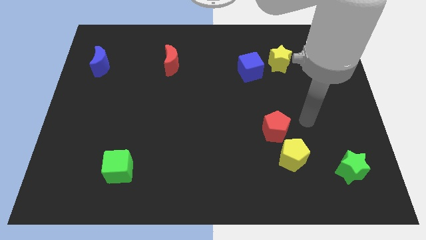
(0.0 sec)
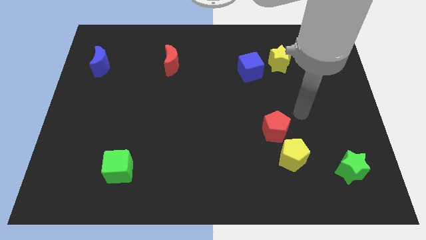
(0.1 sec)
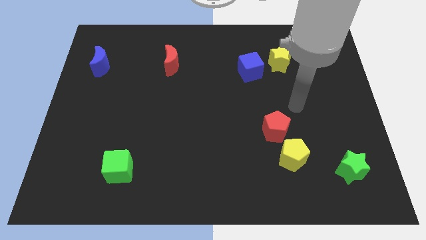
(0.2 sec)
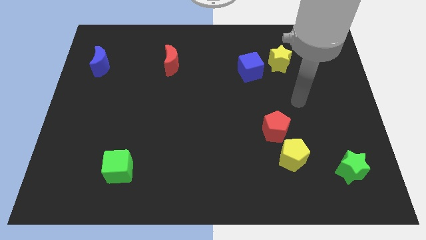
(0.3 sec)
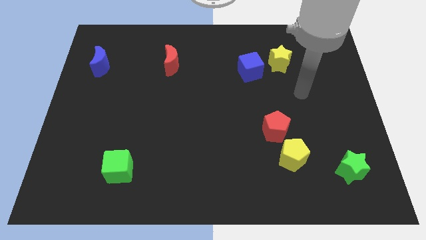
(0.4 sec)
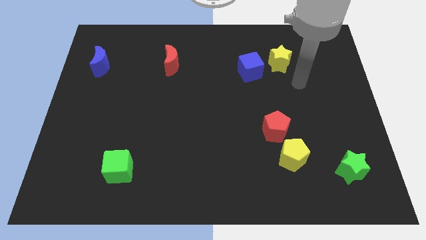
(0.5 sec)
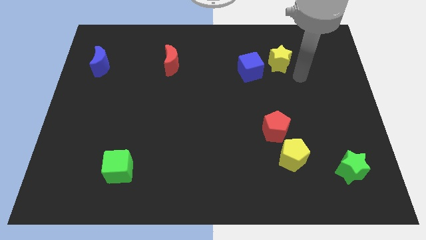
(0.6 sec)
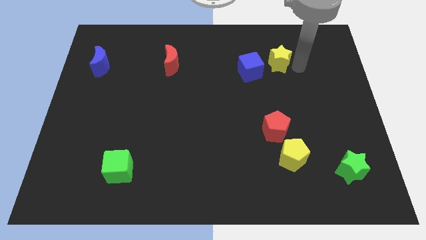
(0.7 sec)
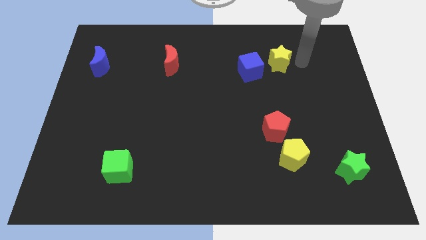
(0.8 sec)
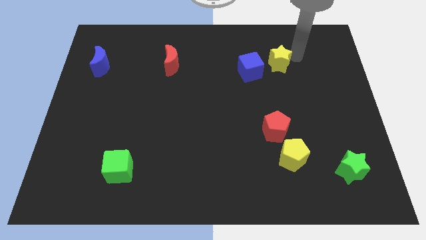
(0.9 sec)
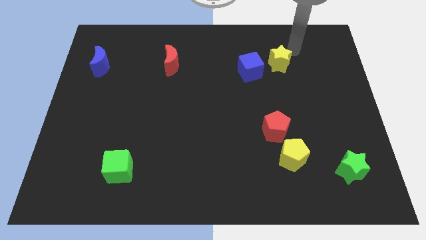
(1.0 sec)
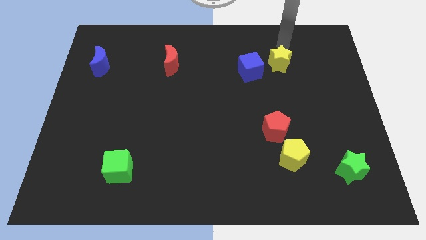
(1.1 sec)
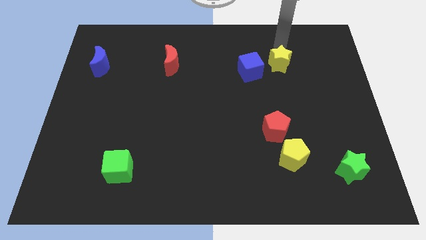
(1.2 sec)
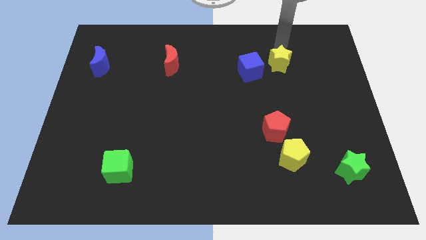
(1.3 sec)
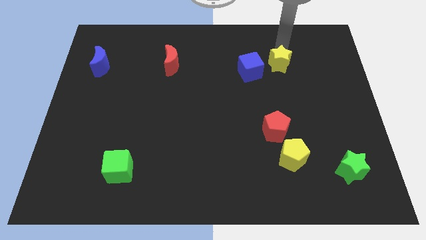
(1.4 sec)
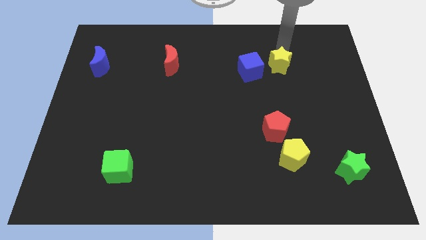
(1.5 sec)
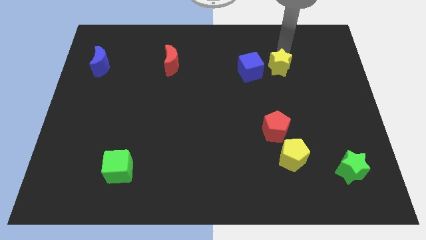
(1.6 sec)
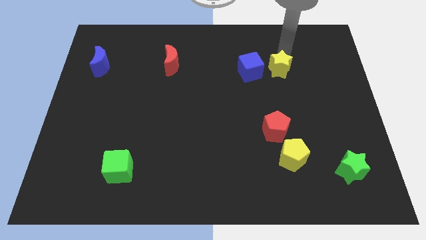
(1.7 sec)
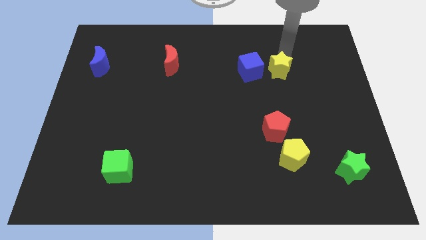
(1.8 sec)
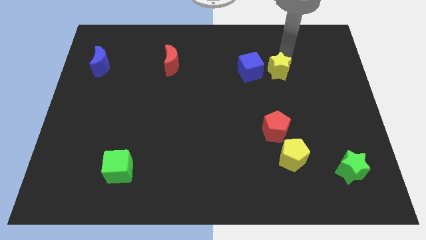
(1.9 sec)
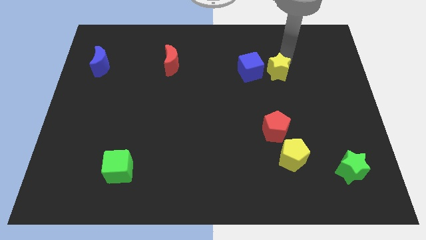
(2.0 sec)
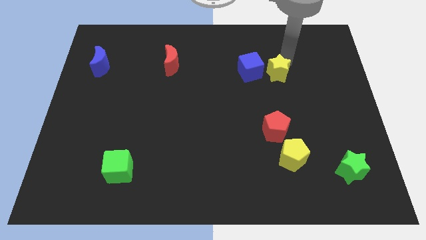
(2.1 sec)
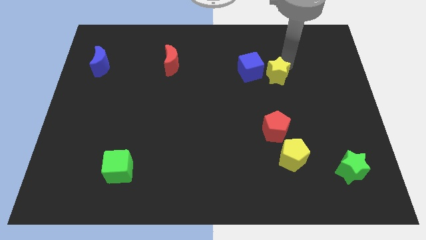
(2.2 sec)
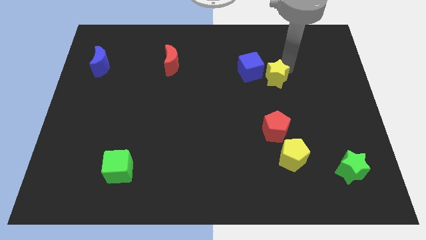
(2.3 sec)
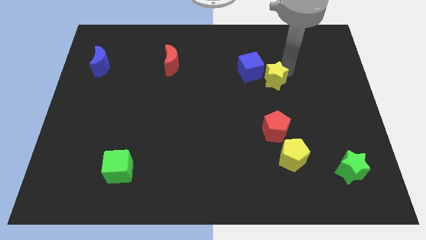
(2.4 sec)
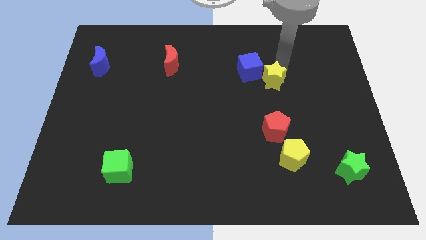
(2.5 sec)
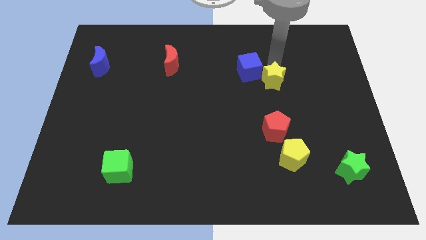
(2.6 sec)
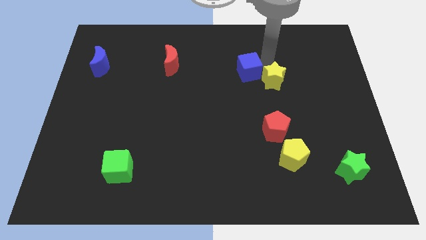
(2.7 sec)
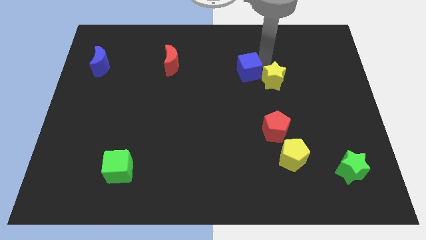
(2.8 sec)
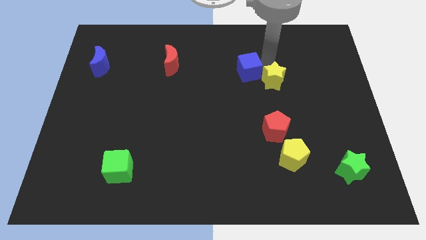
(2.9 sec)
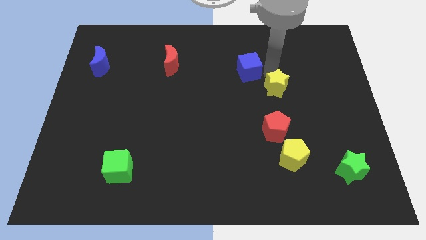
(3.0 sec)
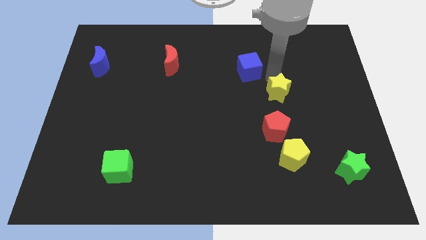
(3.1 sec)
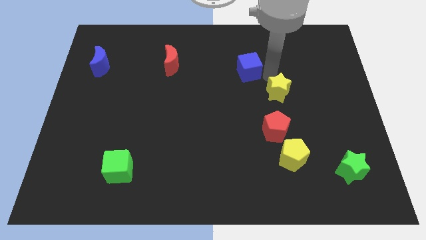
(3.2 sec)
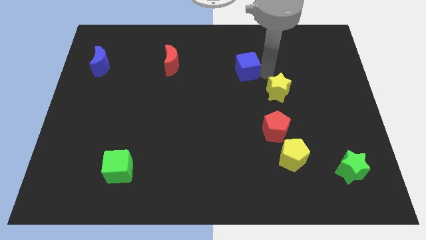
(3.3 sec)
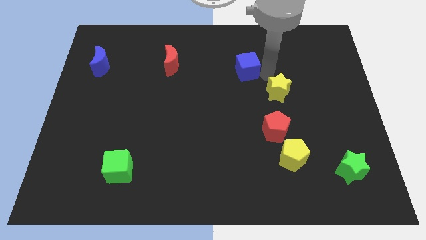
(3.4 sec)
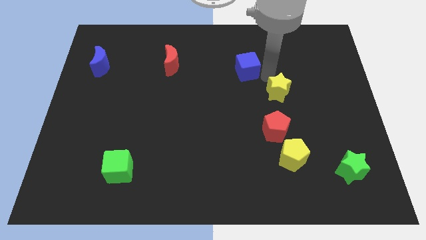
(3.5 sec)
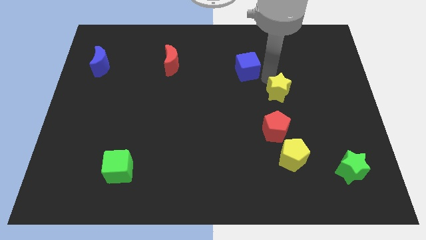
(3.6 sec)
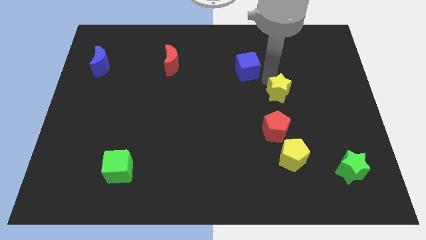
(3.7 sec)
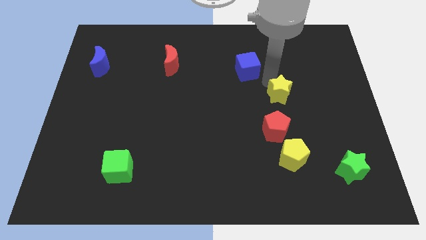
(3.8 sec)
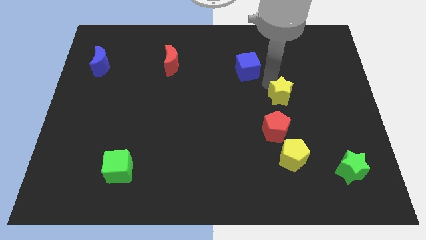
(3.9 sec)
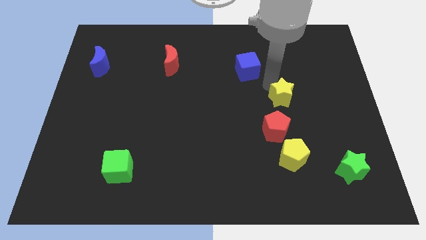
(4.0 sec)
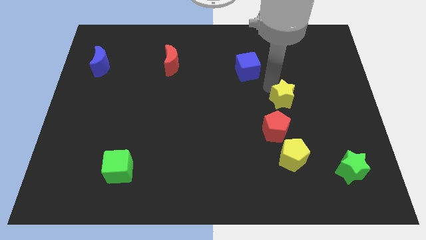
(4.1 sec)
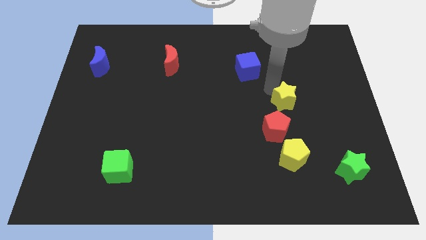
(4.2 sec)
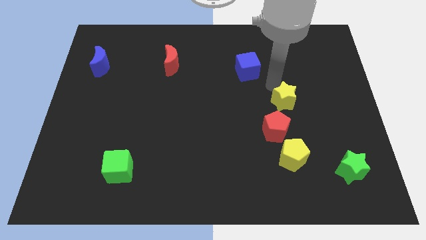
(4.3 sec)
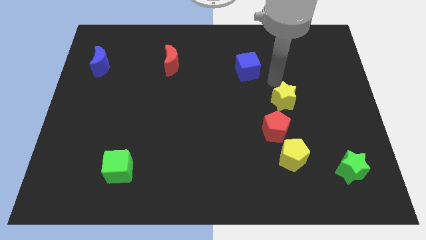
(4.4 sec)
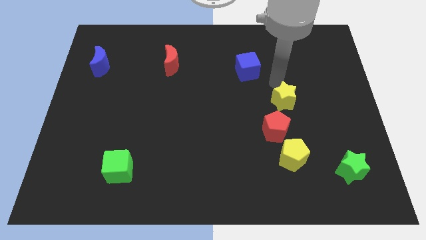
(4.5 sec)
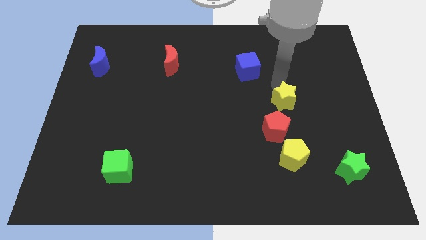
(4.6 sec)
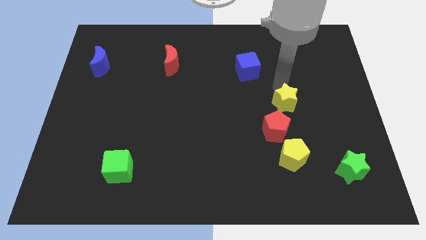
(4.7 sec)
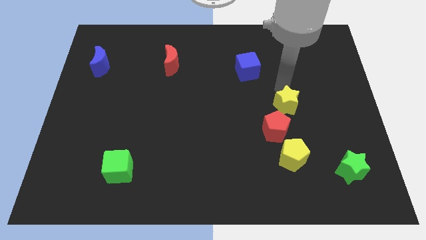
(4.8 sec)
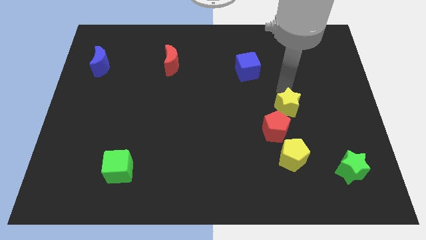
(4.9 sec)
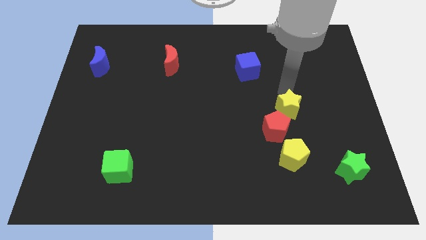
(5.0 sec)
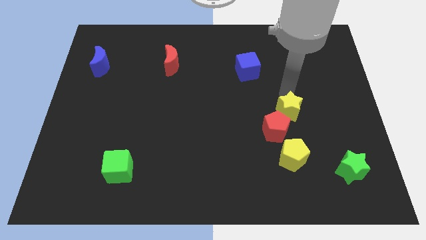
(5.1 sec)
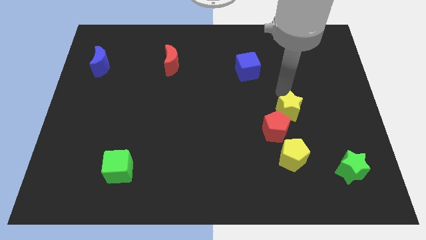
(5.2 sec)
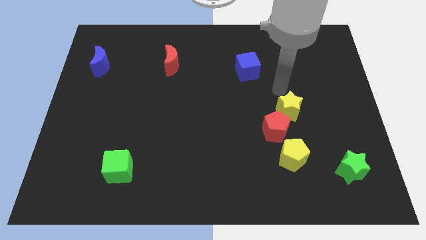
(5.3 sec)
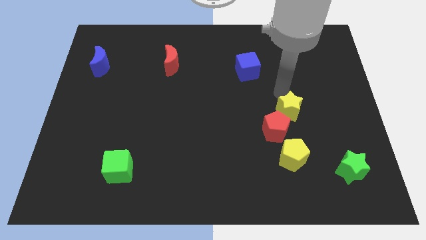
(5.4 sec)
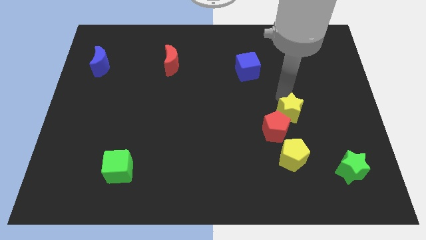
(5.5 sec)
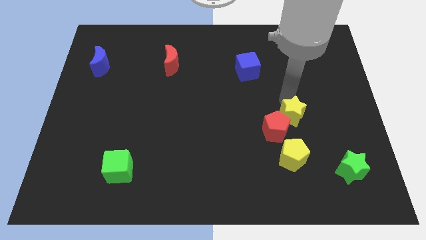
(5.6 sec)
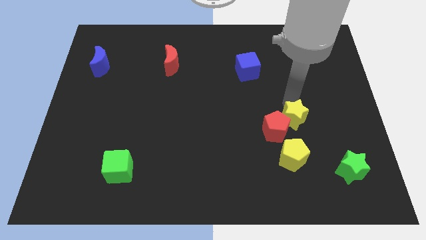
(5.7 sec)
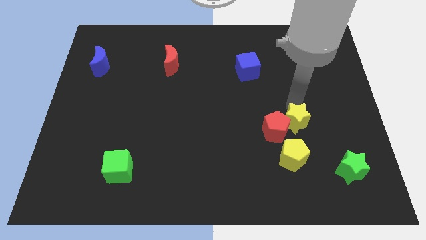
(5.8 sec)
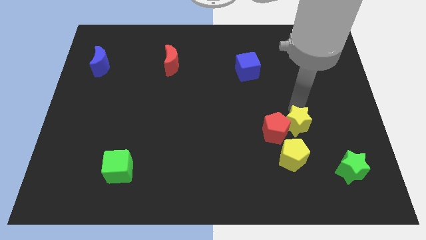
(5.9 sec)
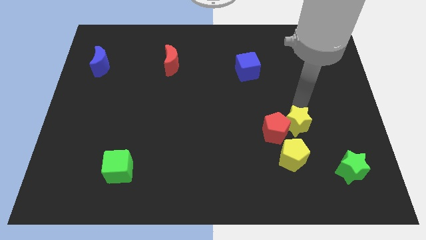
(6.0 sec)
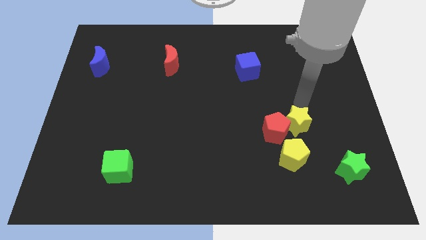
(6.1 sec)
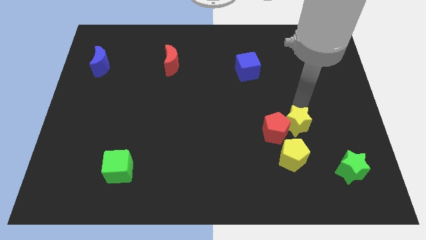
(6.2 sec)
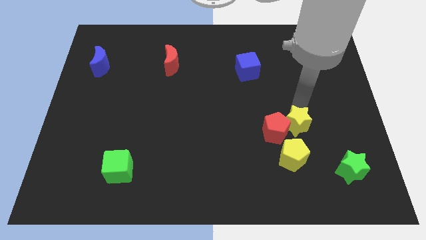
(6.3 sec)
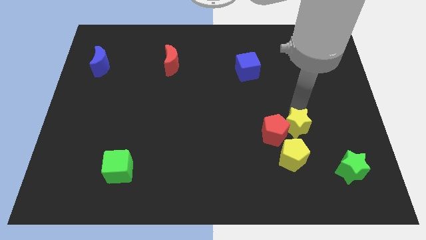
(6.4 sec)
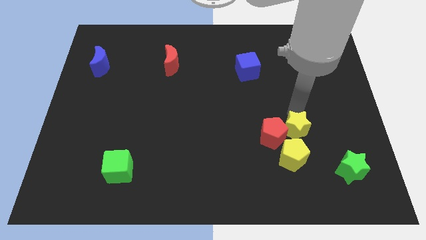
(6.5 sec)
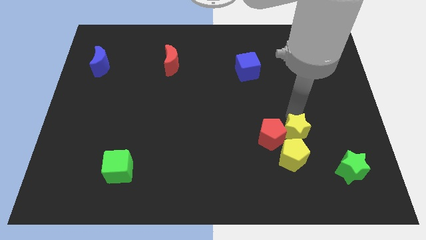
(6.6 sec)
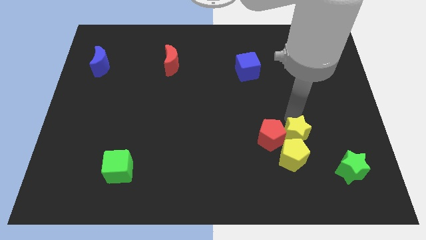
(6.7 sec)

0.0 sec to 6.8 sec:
put the yellow star close to the yellow pentagon
